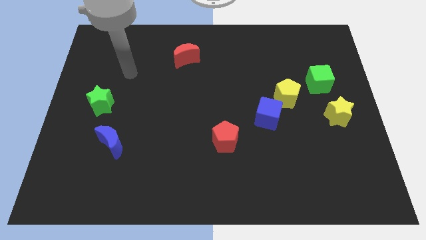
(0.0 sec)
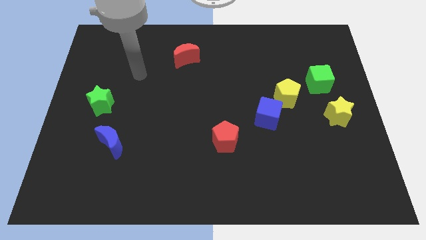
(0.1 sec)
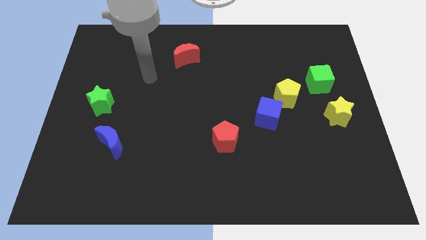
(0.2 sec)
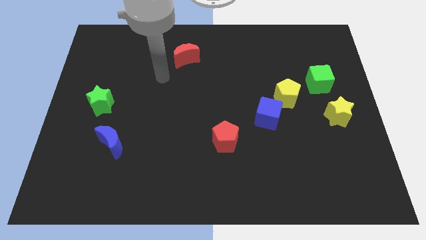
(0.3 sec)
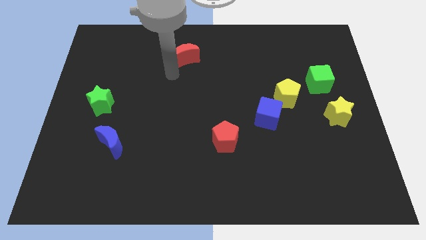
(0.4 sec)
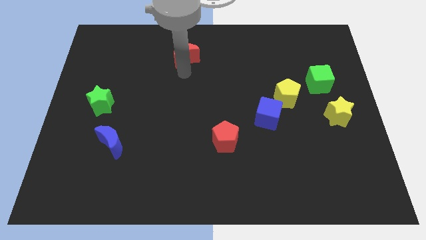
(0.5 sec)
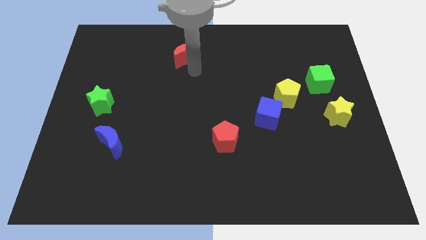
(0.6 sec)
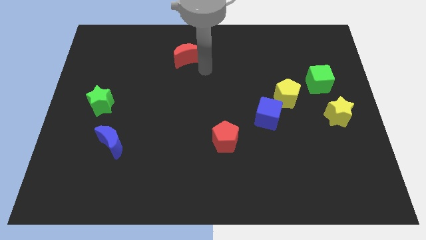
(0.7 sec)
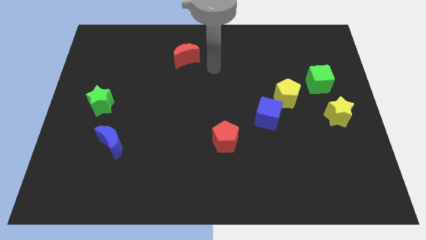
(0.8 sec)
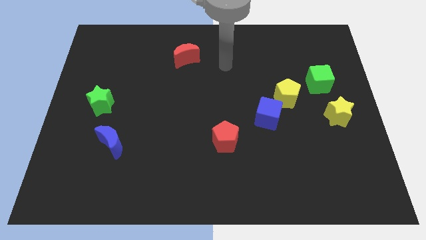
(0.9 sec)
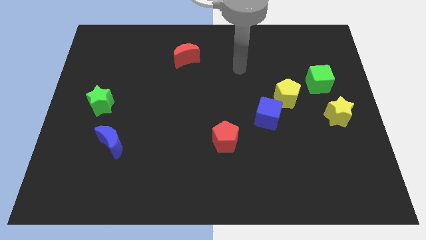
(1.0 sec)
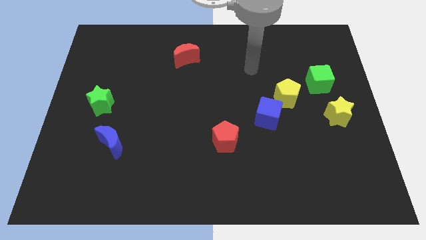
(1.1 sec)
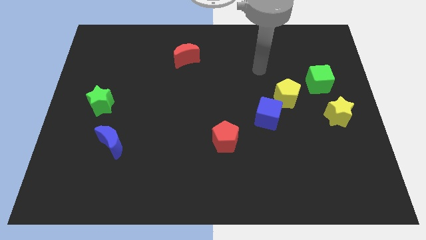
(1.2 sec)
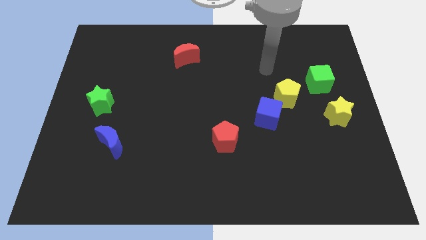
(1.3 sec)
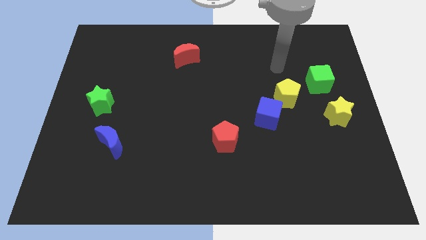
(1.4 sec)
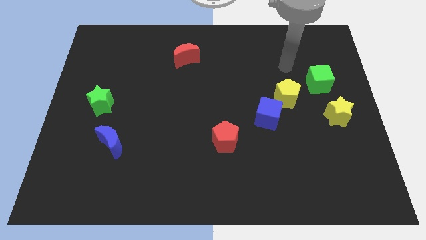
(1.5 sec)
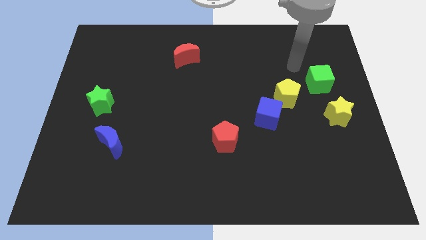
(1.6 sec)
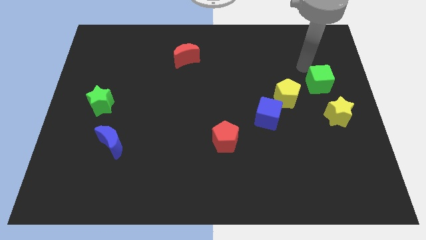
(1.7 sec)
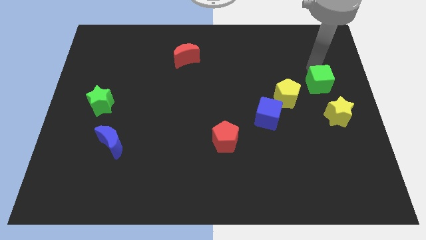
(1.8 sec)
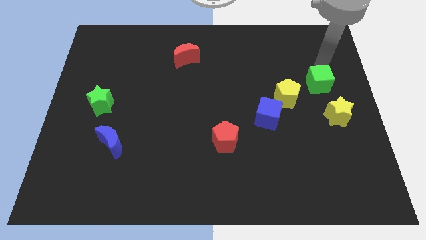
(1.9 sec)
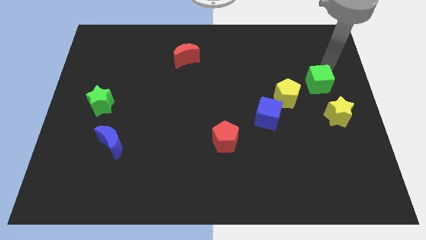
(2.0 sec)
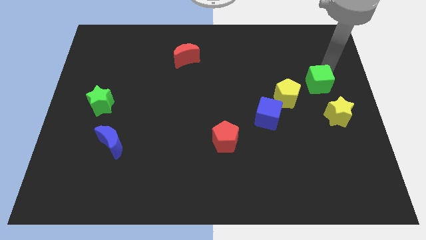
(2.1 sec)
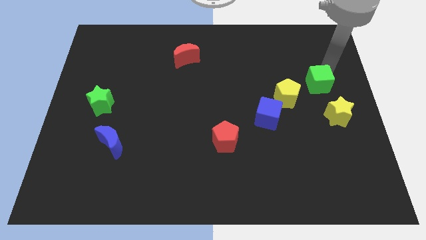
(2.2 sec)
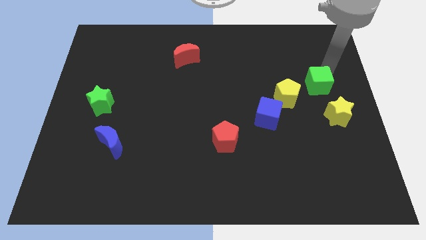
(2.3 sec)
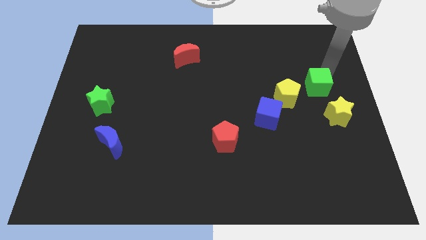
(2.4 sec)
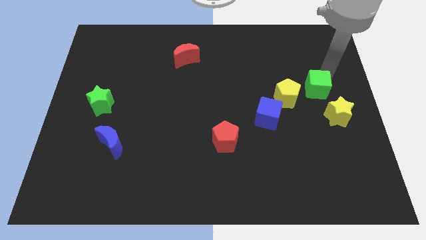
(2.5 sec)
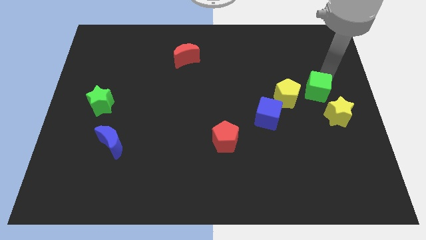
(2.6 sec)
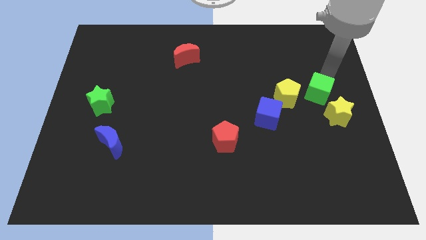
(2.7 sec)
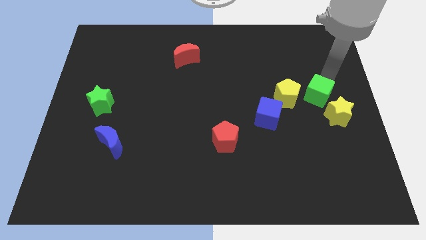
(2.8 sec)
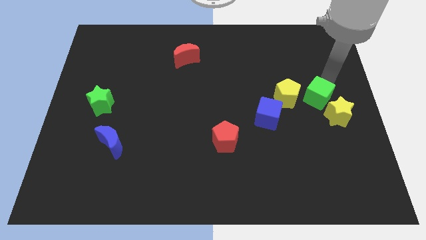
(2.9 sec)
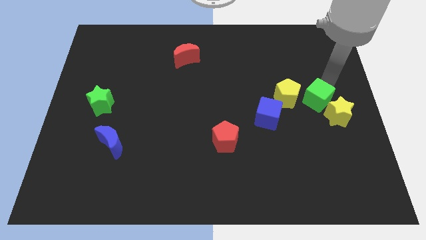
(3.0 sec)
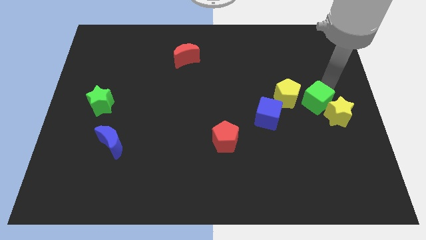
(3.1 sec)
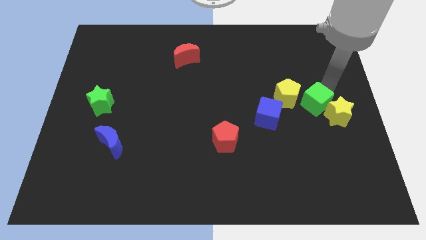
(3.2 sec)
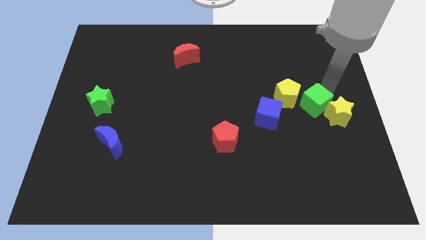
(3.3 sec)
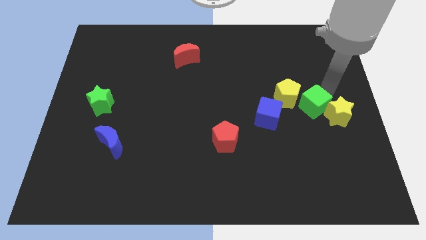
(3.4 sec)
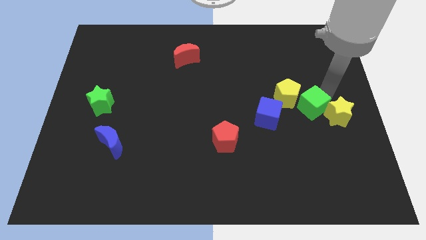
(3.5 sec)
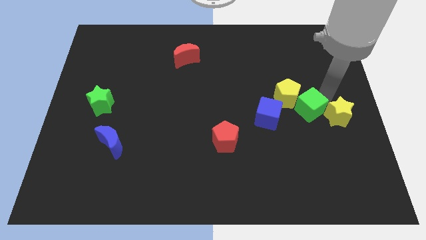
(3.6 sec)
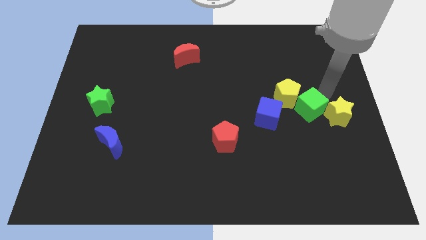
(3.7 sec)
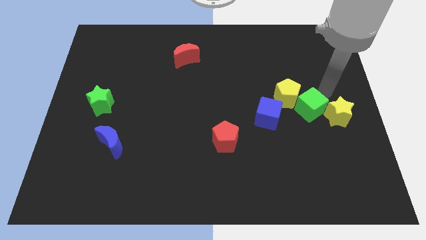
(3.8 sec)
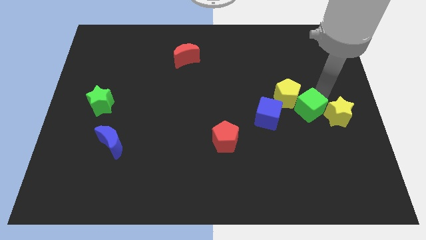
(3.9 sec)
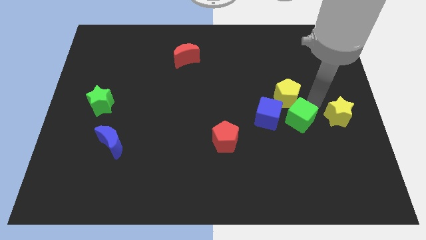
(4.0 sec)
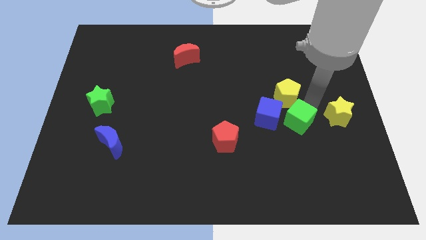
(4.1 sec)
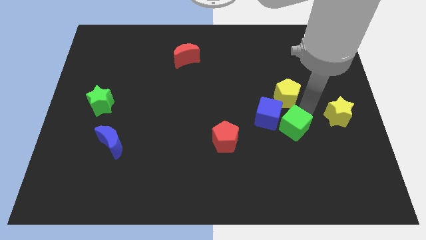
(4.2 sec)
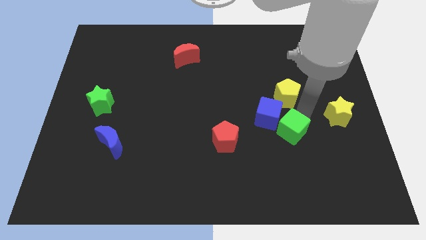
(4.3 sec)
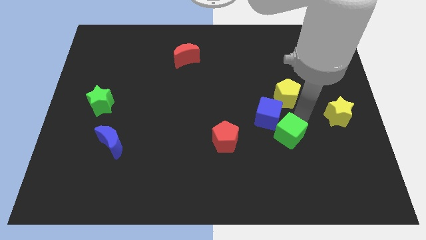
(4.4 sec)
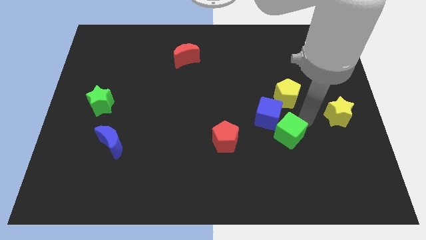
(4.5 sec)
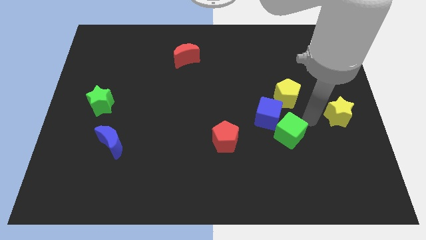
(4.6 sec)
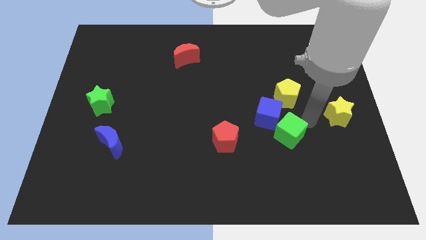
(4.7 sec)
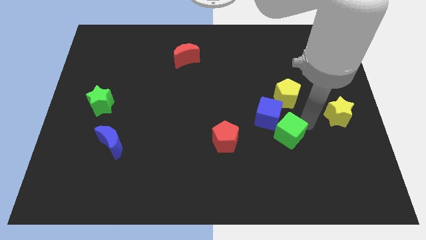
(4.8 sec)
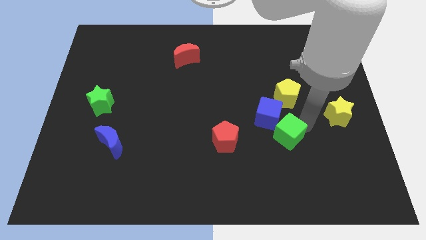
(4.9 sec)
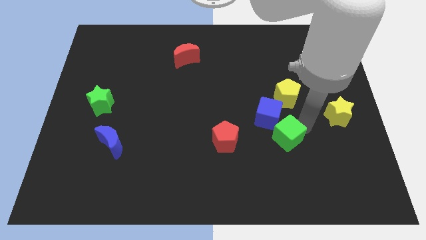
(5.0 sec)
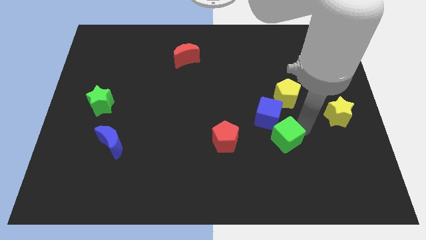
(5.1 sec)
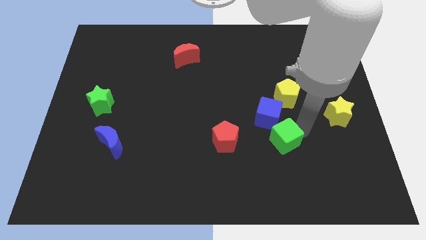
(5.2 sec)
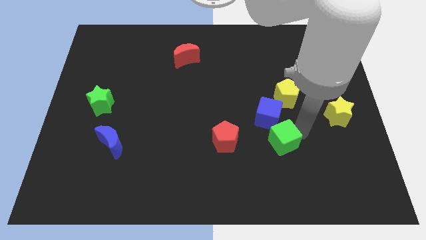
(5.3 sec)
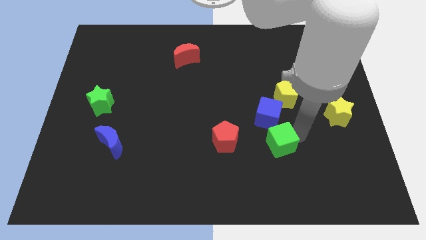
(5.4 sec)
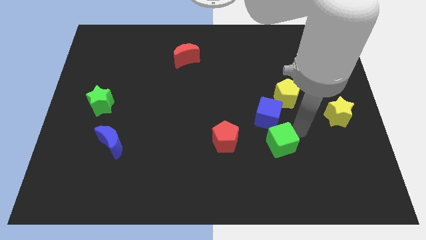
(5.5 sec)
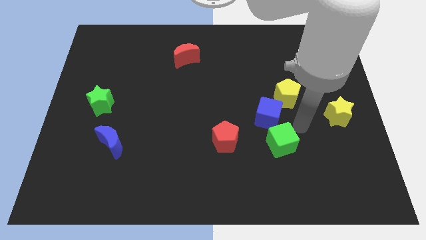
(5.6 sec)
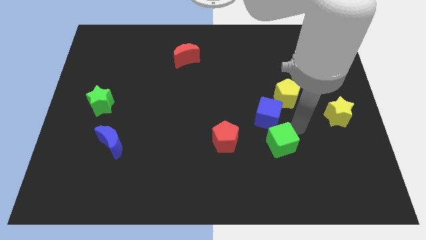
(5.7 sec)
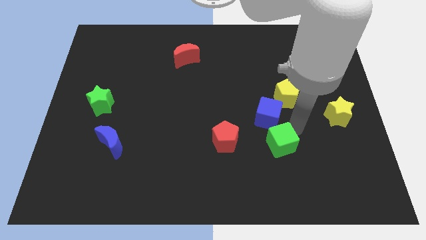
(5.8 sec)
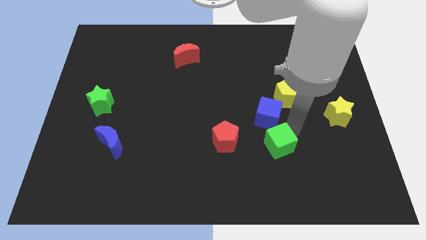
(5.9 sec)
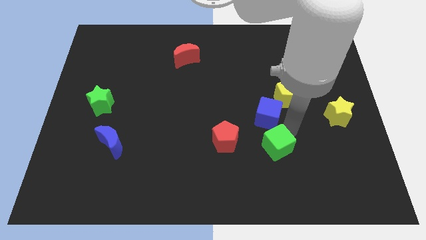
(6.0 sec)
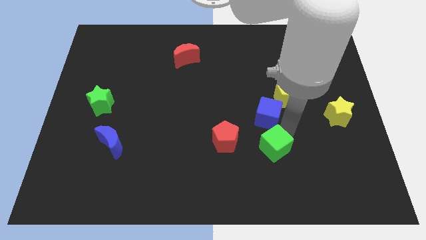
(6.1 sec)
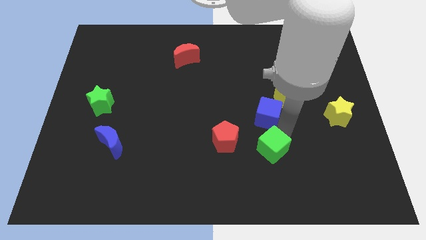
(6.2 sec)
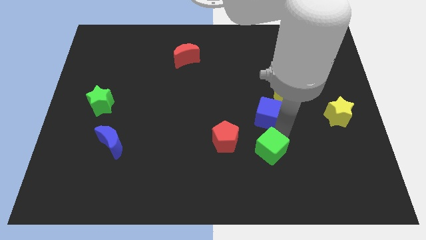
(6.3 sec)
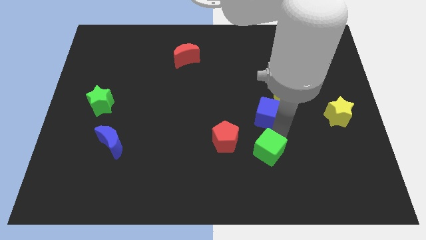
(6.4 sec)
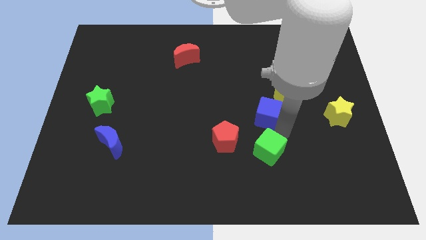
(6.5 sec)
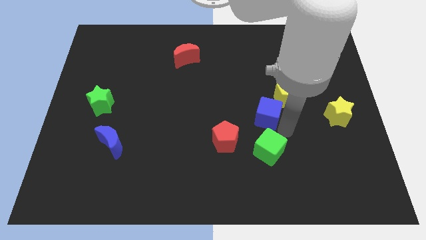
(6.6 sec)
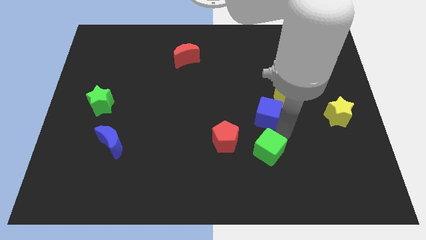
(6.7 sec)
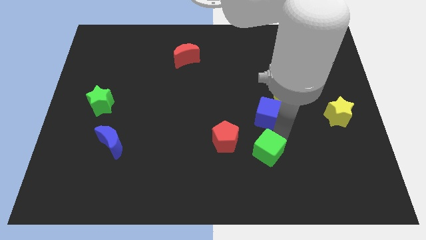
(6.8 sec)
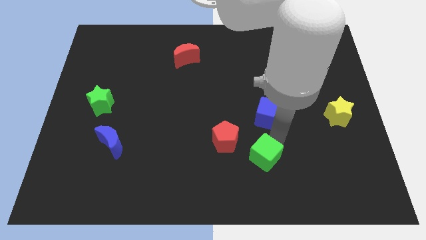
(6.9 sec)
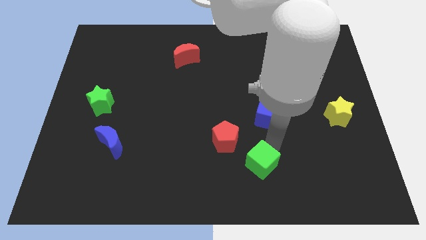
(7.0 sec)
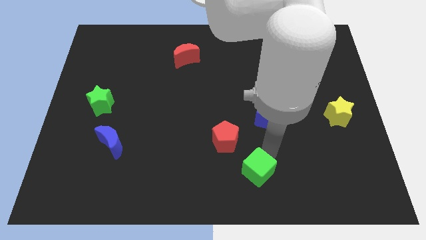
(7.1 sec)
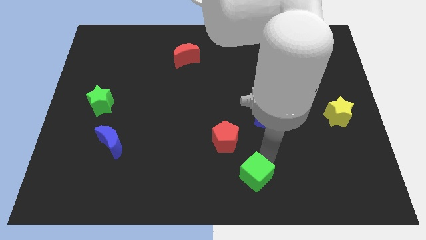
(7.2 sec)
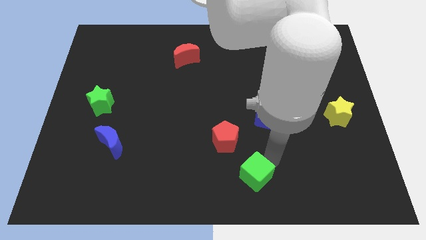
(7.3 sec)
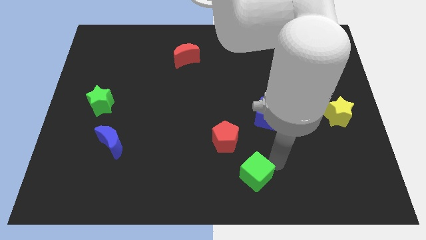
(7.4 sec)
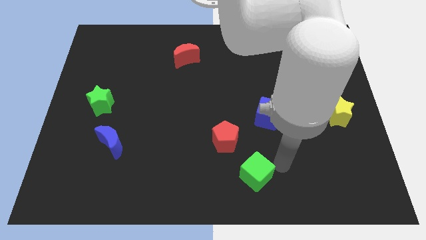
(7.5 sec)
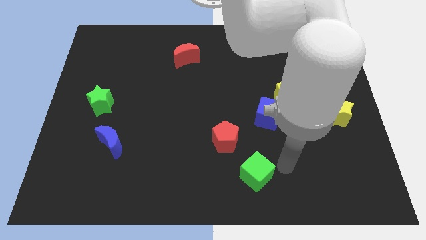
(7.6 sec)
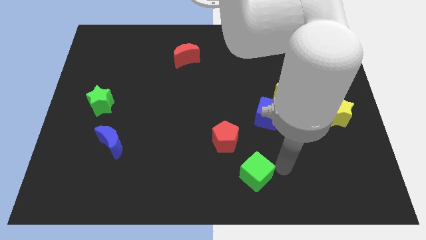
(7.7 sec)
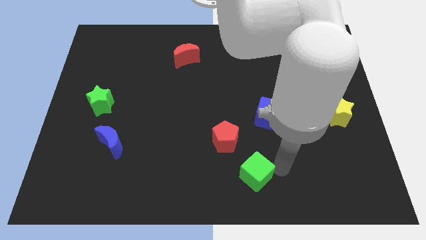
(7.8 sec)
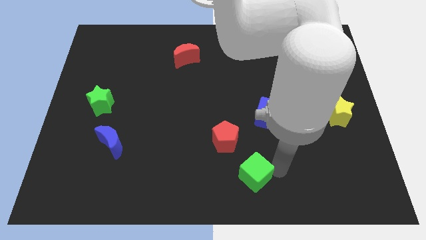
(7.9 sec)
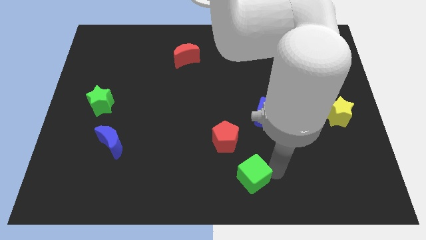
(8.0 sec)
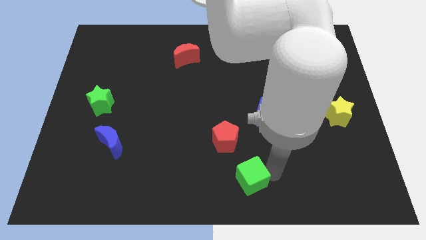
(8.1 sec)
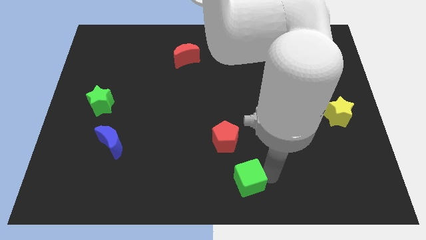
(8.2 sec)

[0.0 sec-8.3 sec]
put the green cube to the bottom side of the red pentagon
